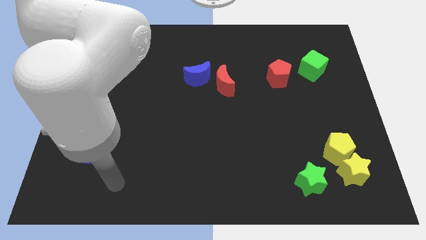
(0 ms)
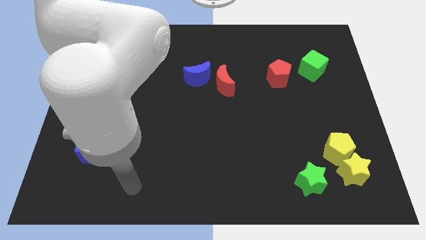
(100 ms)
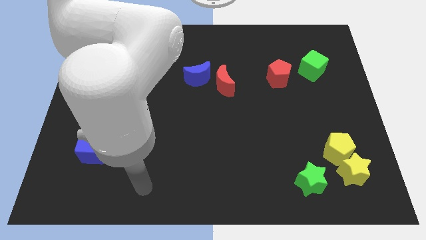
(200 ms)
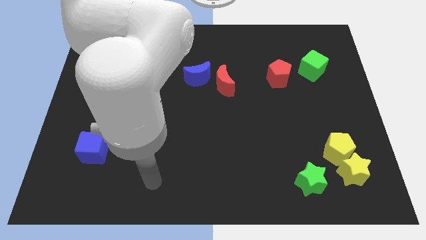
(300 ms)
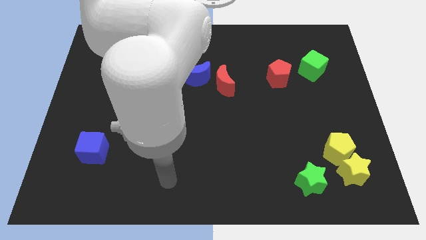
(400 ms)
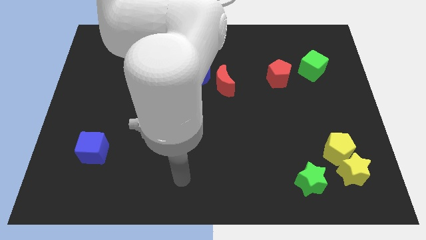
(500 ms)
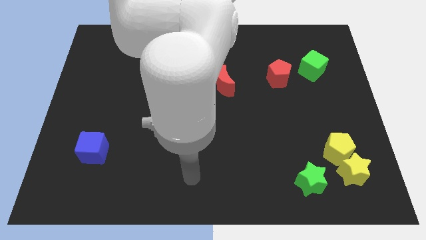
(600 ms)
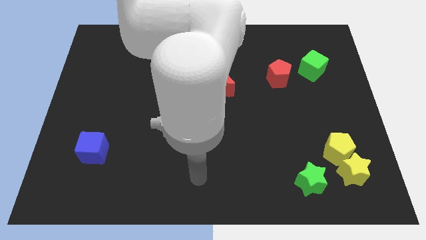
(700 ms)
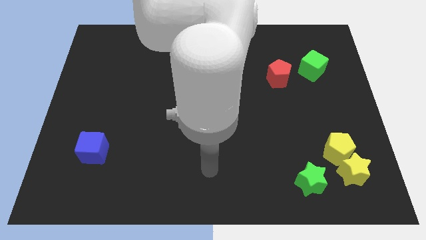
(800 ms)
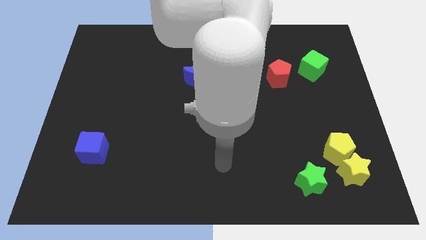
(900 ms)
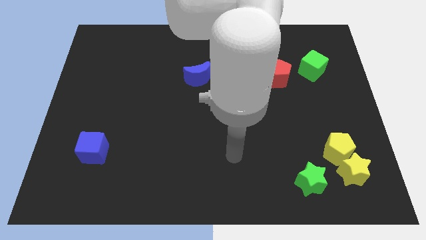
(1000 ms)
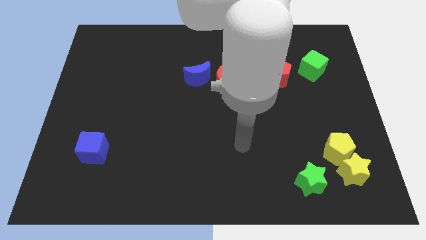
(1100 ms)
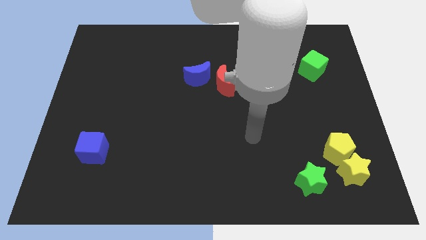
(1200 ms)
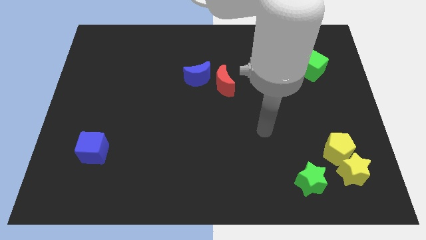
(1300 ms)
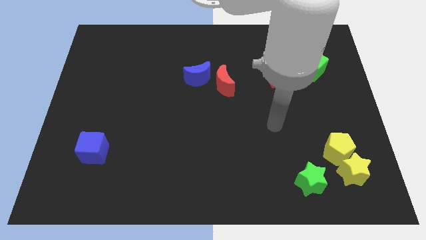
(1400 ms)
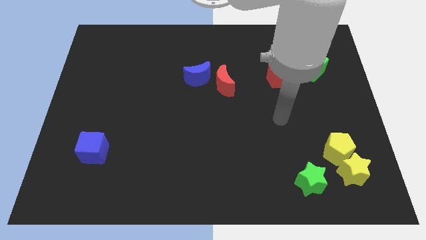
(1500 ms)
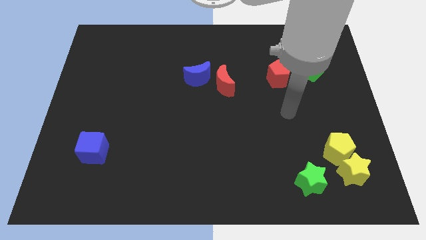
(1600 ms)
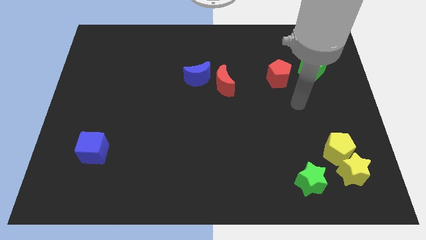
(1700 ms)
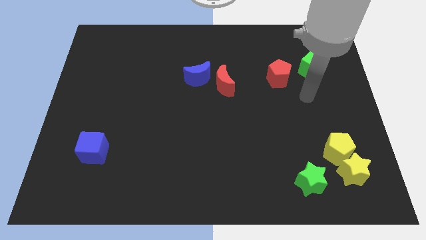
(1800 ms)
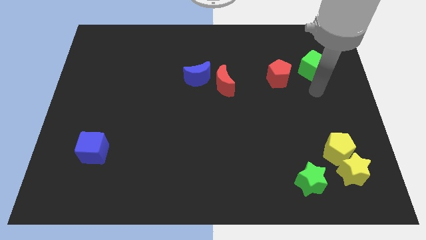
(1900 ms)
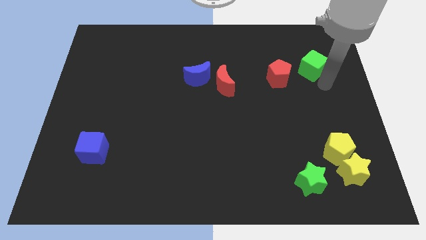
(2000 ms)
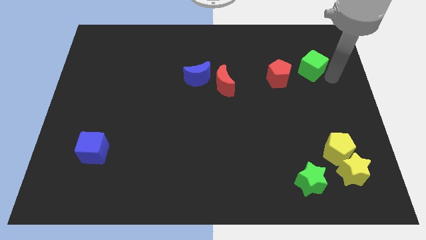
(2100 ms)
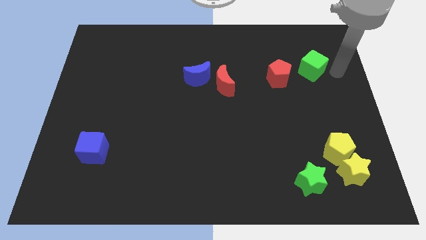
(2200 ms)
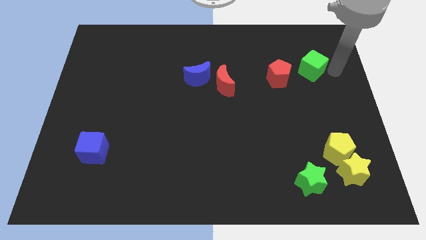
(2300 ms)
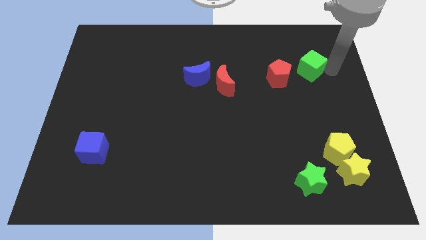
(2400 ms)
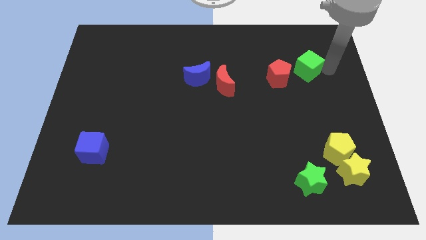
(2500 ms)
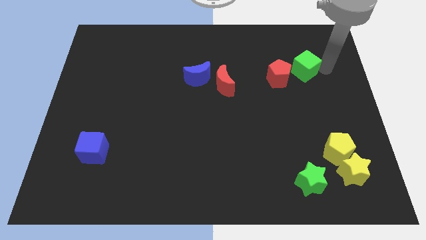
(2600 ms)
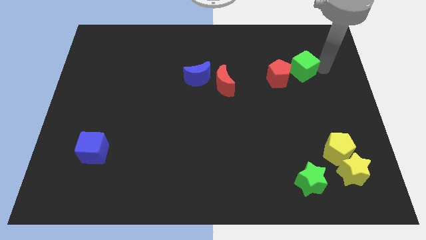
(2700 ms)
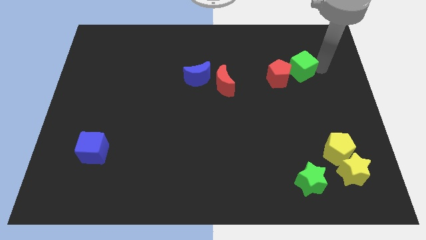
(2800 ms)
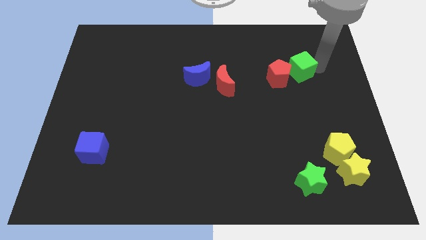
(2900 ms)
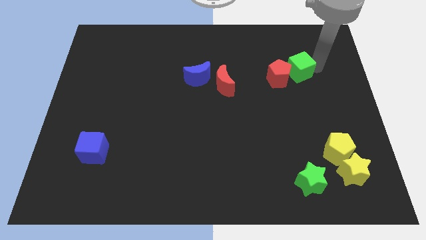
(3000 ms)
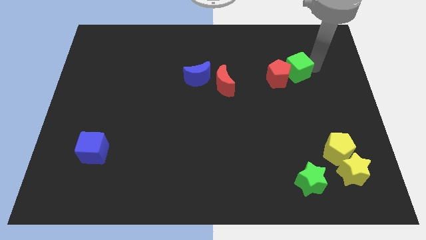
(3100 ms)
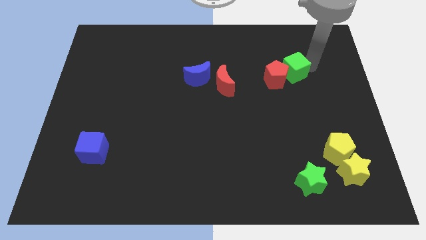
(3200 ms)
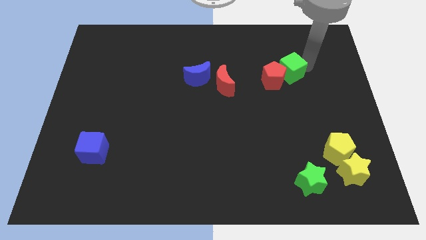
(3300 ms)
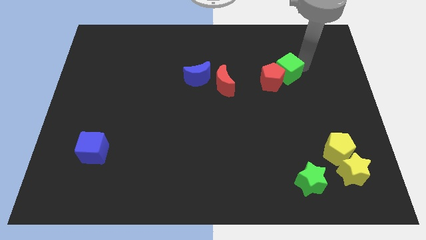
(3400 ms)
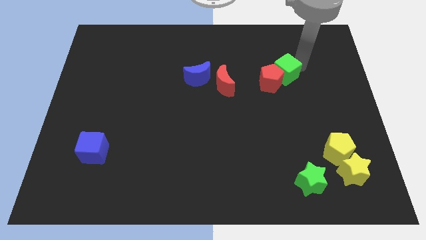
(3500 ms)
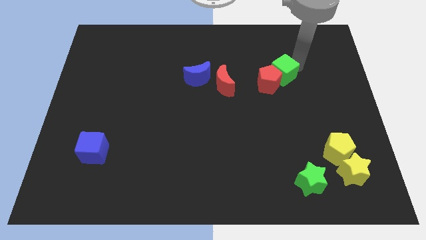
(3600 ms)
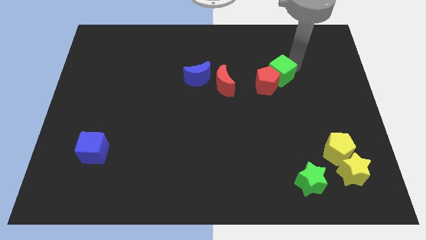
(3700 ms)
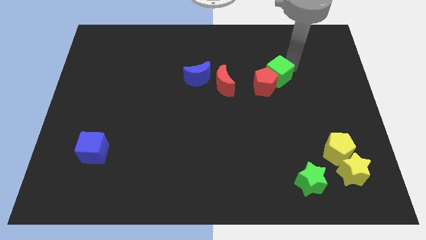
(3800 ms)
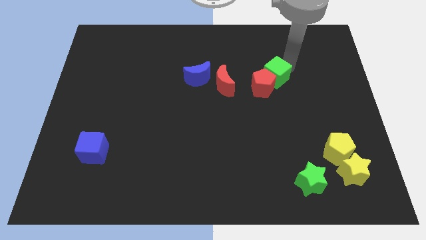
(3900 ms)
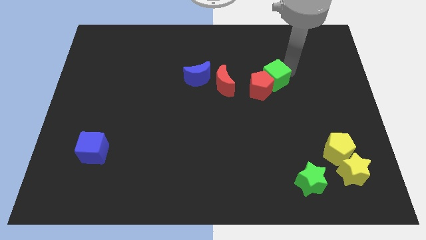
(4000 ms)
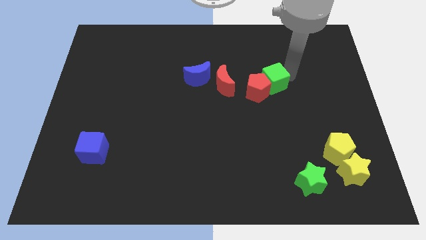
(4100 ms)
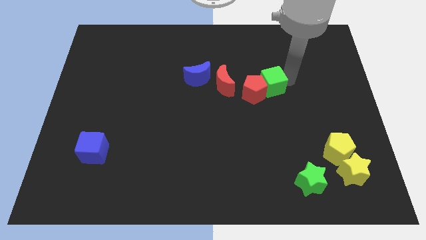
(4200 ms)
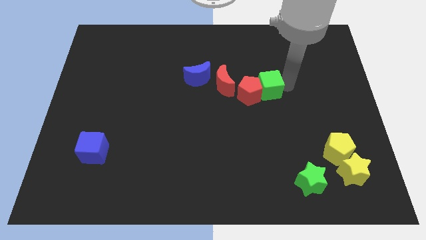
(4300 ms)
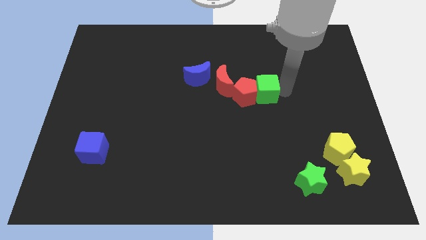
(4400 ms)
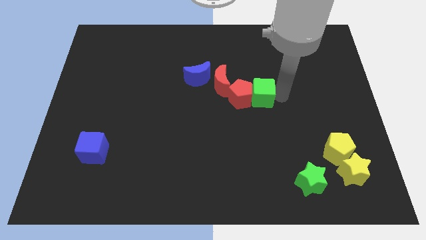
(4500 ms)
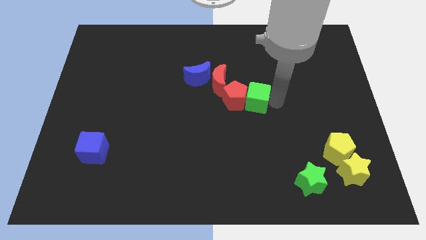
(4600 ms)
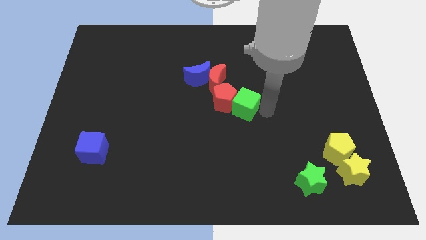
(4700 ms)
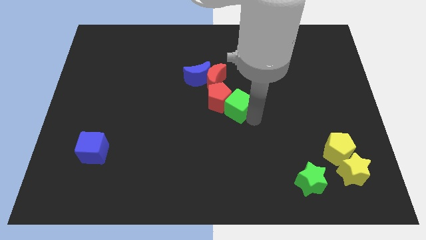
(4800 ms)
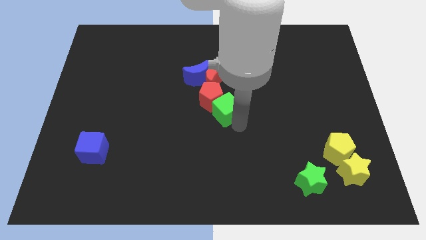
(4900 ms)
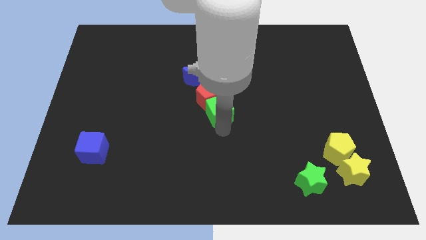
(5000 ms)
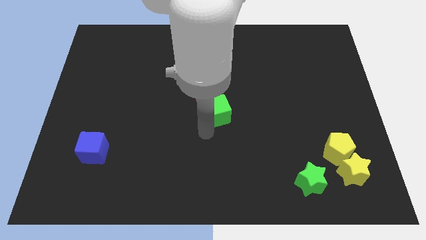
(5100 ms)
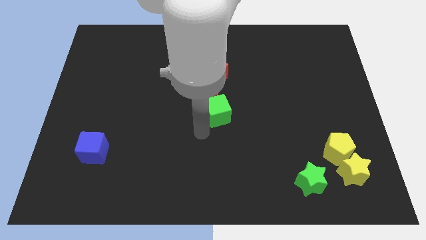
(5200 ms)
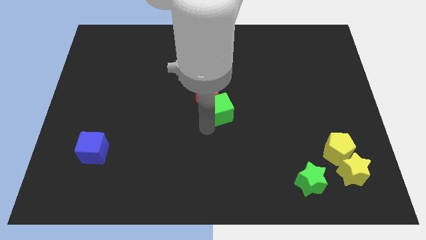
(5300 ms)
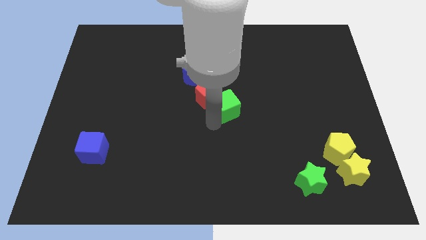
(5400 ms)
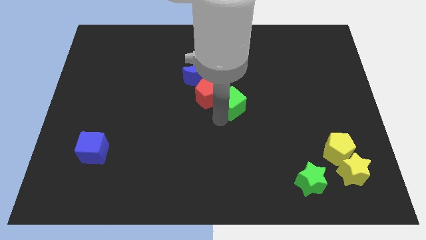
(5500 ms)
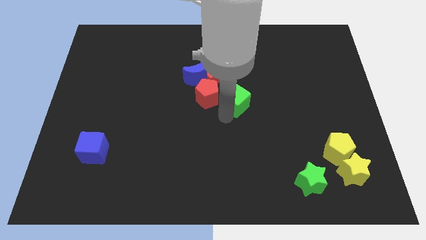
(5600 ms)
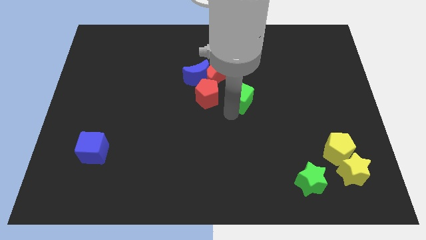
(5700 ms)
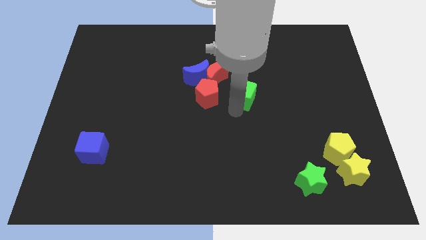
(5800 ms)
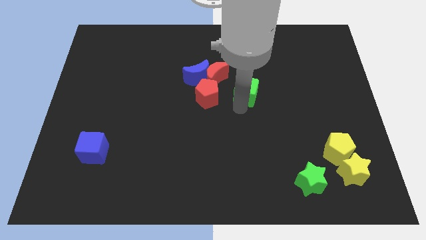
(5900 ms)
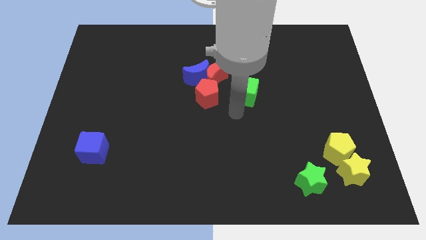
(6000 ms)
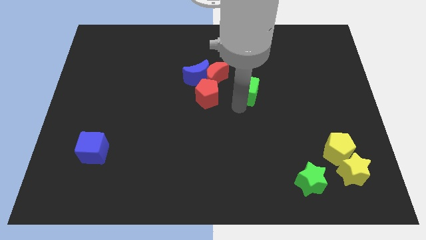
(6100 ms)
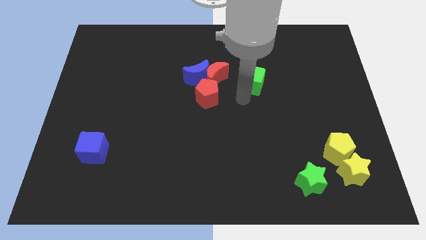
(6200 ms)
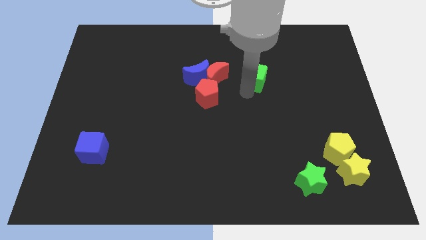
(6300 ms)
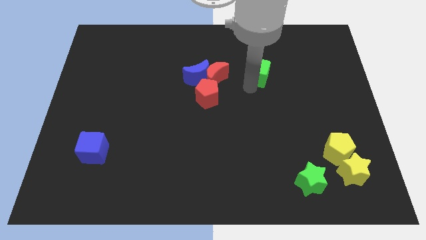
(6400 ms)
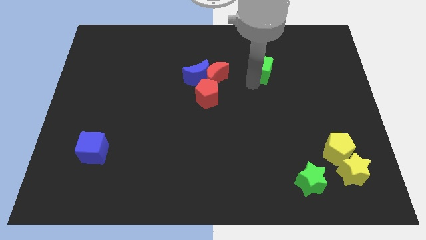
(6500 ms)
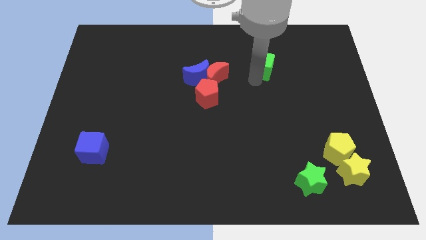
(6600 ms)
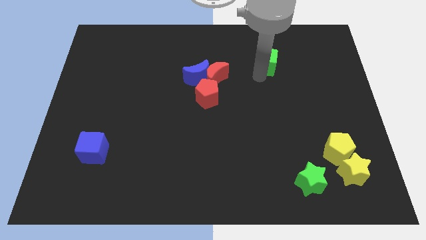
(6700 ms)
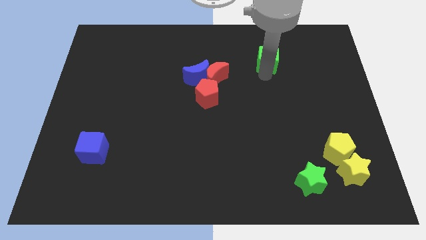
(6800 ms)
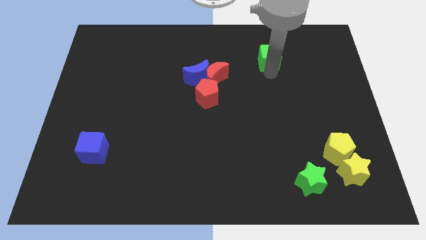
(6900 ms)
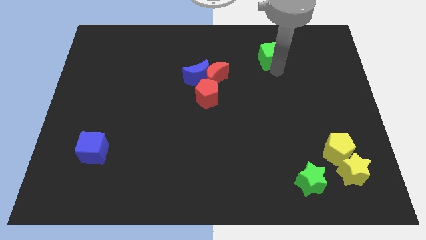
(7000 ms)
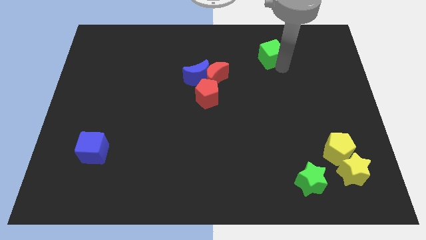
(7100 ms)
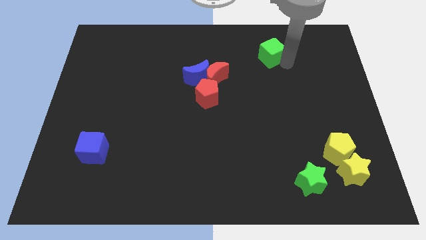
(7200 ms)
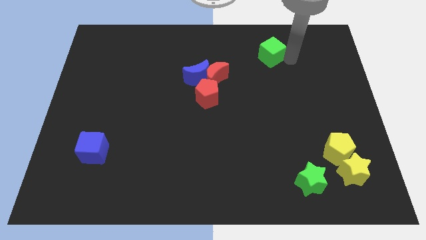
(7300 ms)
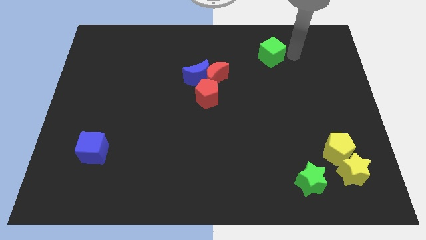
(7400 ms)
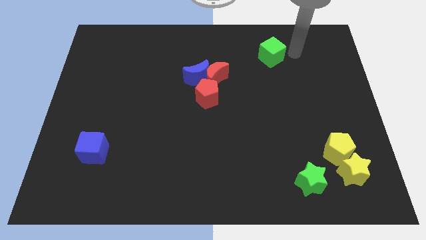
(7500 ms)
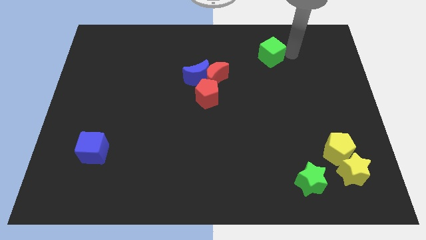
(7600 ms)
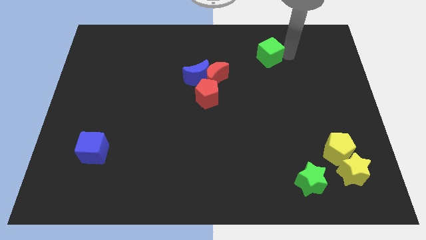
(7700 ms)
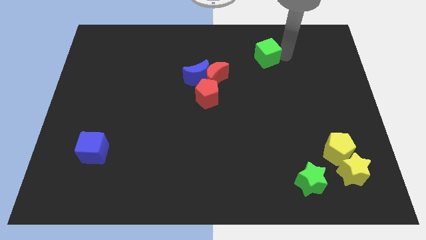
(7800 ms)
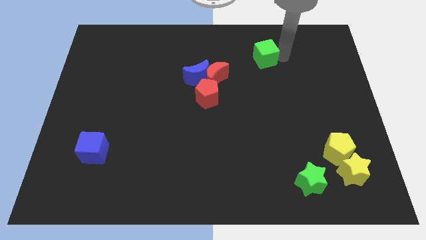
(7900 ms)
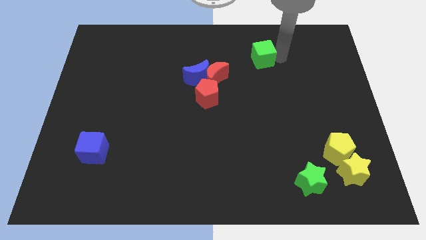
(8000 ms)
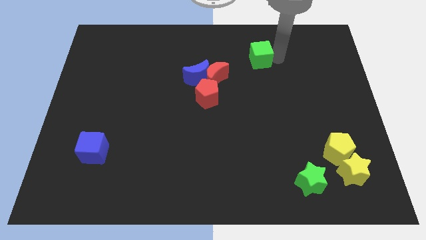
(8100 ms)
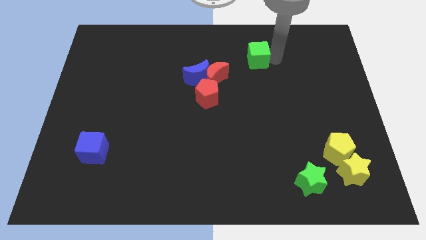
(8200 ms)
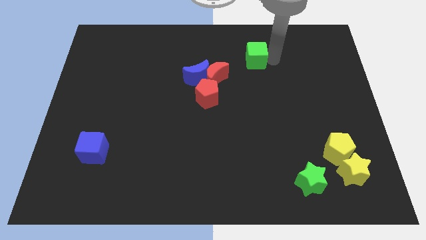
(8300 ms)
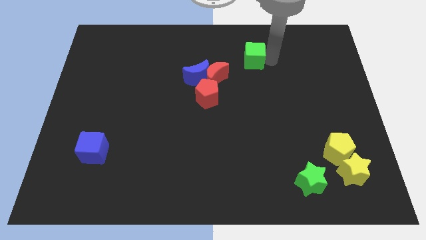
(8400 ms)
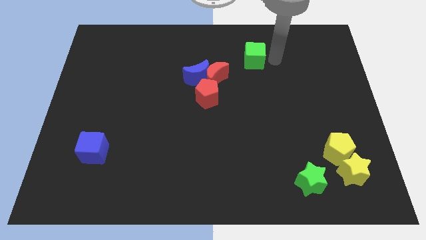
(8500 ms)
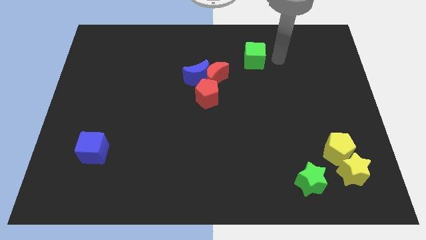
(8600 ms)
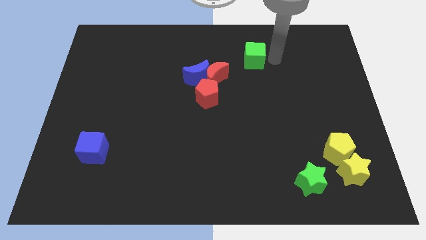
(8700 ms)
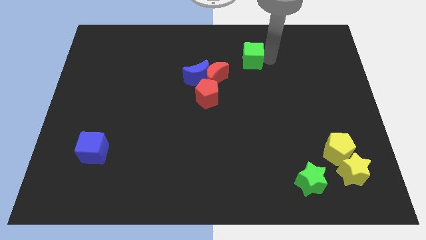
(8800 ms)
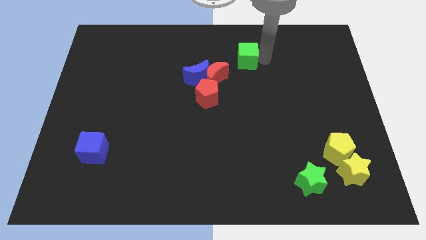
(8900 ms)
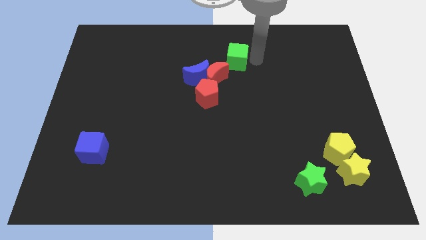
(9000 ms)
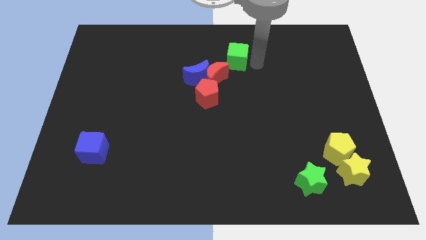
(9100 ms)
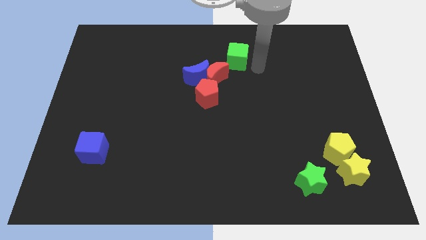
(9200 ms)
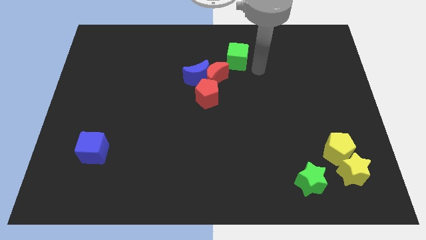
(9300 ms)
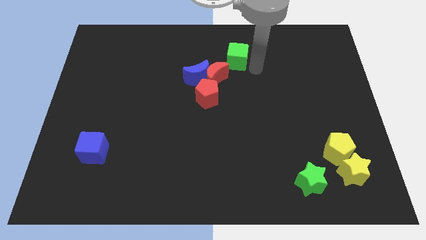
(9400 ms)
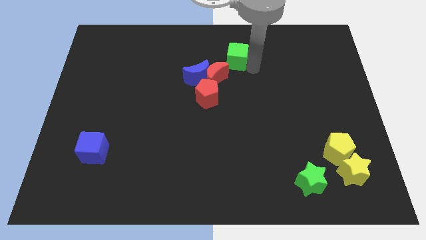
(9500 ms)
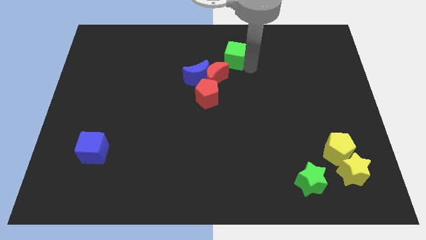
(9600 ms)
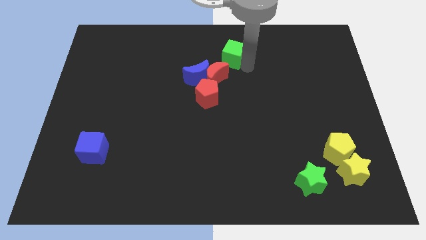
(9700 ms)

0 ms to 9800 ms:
push the green cube to the top of the red moon
